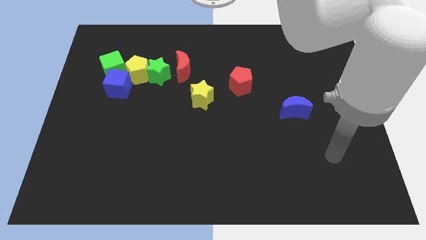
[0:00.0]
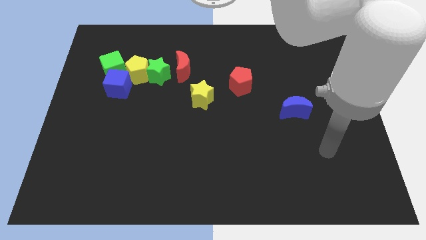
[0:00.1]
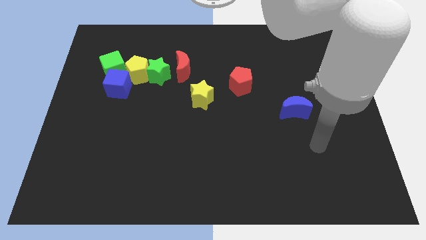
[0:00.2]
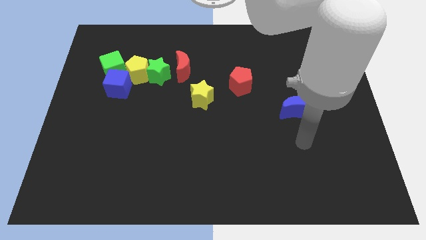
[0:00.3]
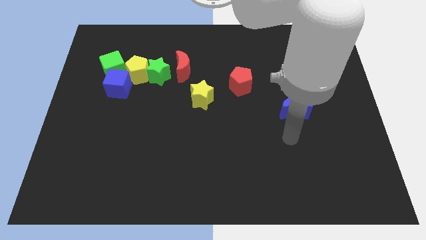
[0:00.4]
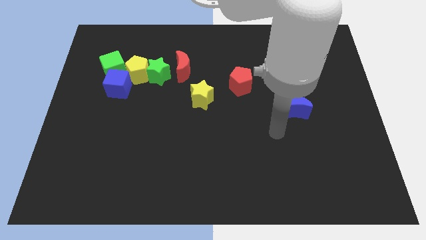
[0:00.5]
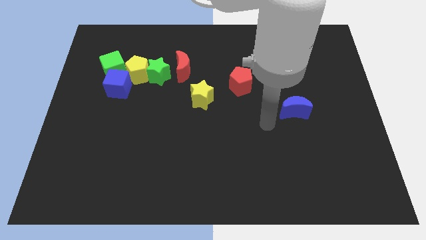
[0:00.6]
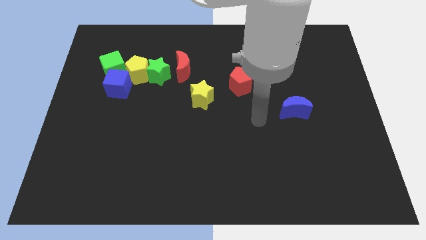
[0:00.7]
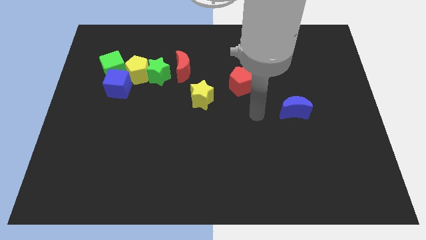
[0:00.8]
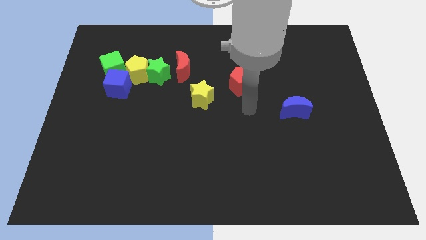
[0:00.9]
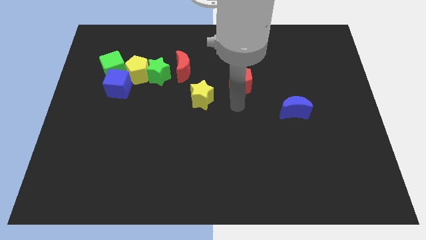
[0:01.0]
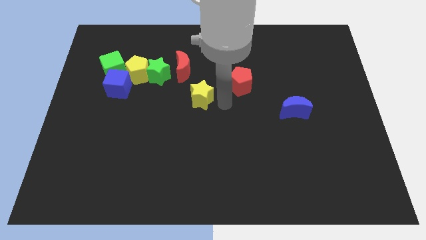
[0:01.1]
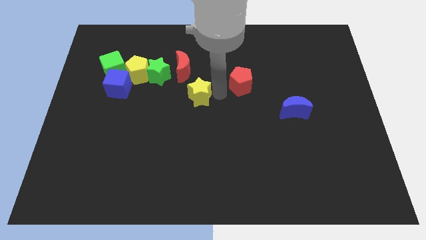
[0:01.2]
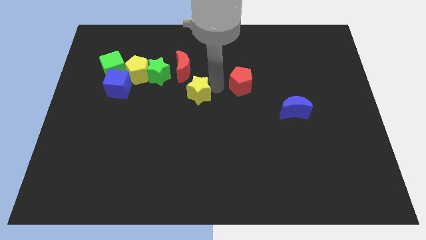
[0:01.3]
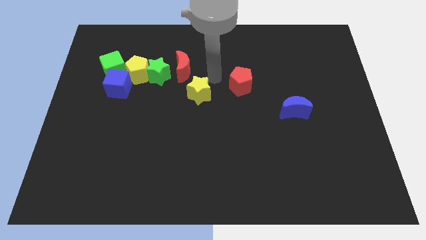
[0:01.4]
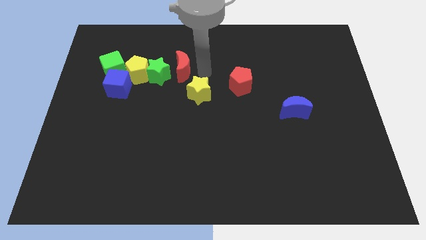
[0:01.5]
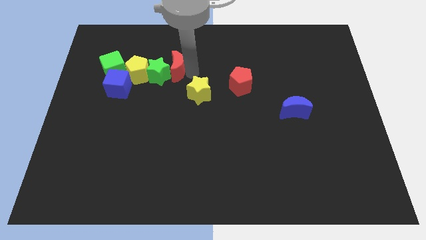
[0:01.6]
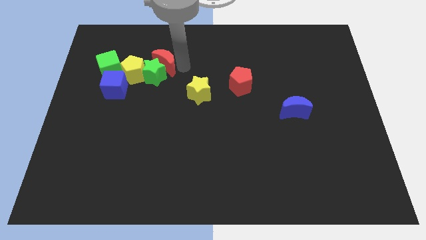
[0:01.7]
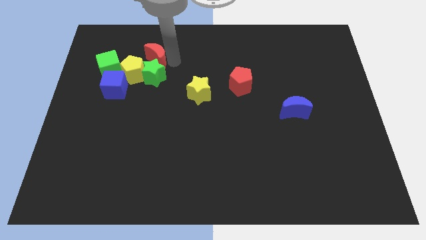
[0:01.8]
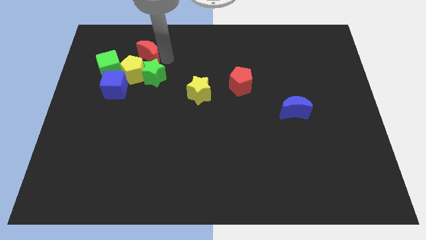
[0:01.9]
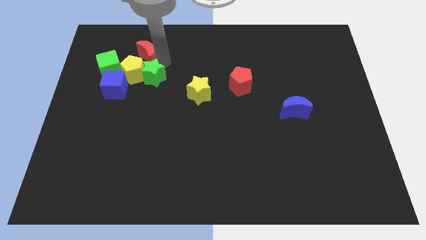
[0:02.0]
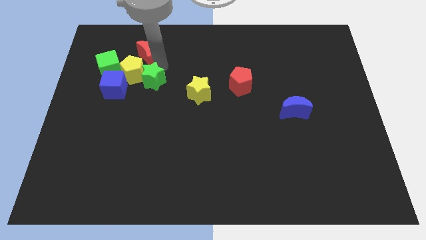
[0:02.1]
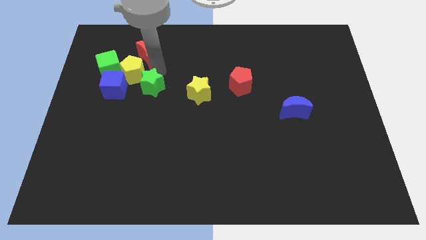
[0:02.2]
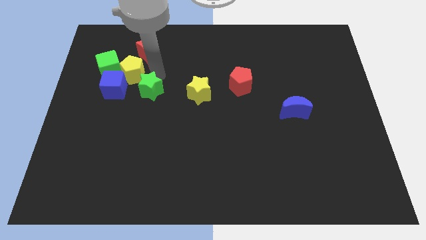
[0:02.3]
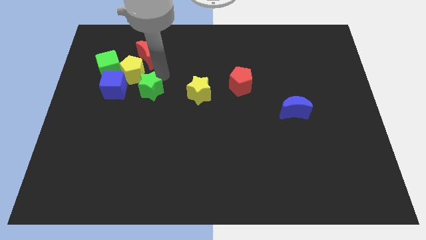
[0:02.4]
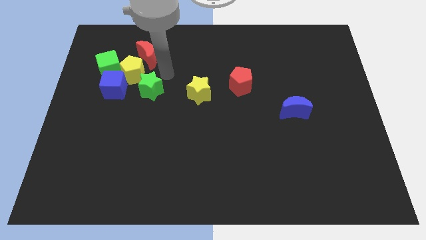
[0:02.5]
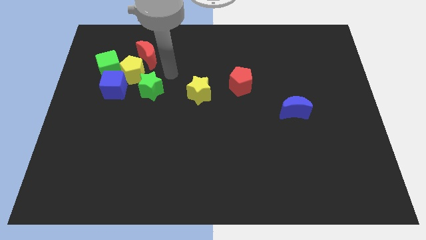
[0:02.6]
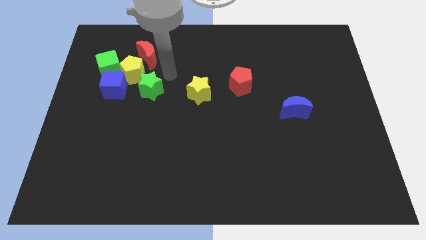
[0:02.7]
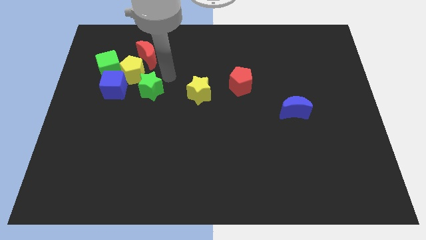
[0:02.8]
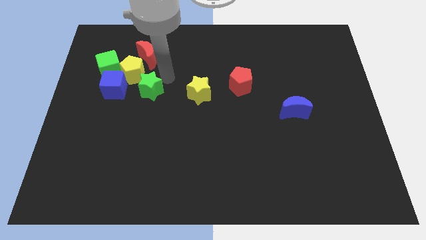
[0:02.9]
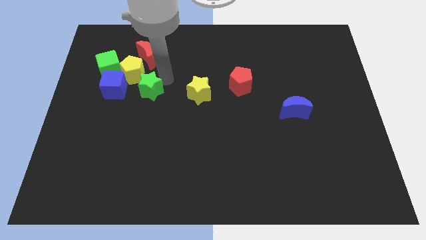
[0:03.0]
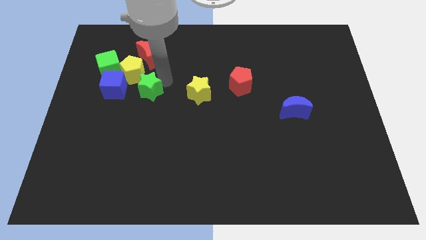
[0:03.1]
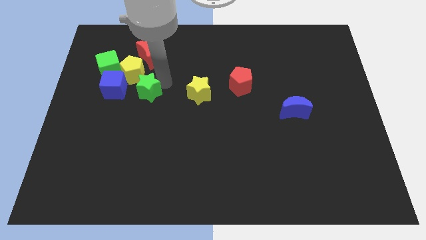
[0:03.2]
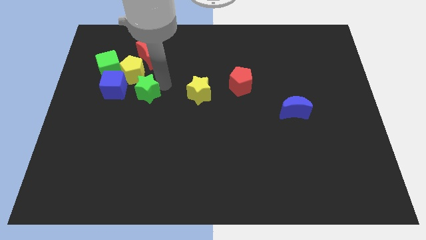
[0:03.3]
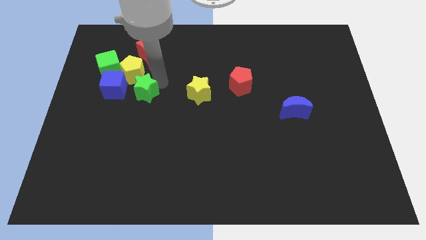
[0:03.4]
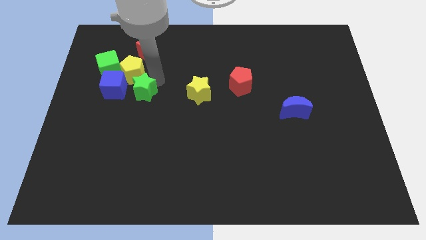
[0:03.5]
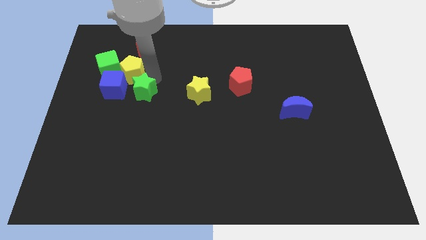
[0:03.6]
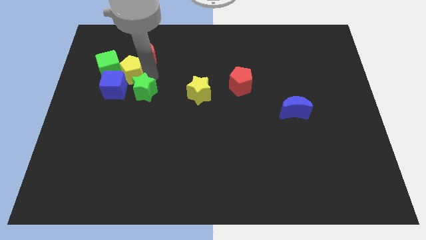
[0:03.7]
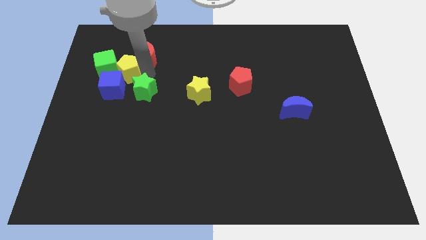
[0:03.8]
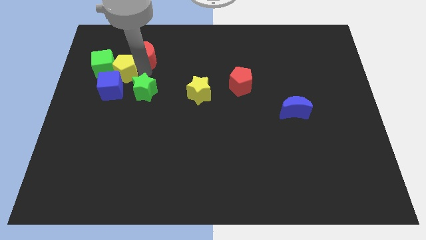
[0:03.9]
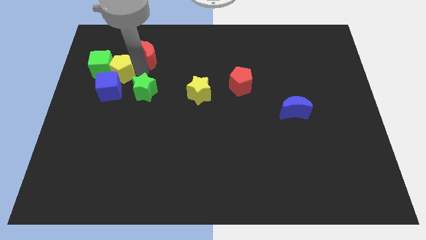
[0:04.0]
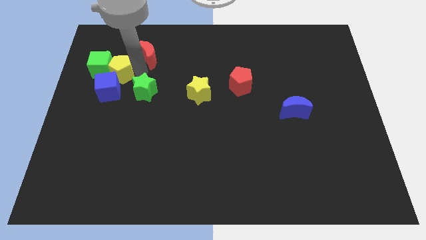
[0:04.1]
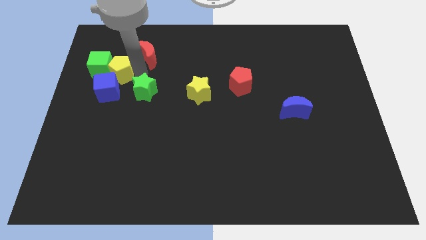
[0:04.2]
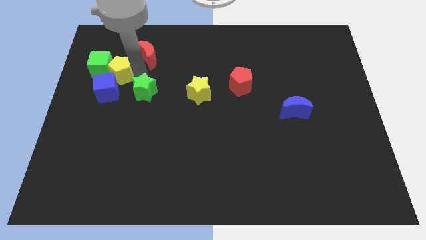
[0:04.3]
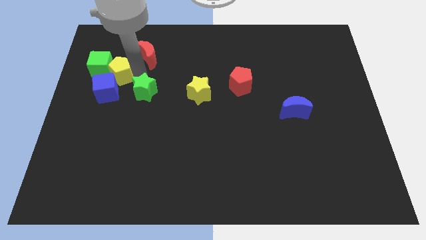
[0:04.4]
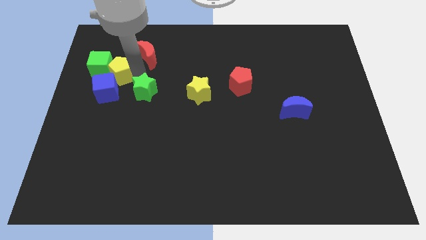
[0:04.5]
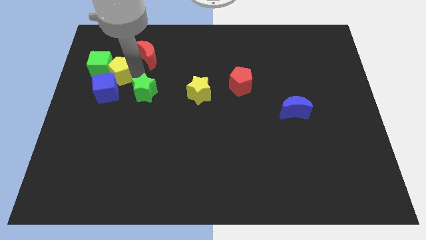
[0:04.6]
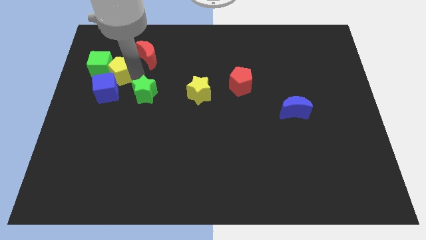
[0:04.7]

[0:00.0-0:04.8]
pull the green star apart from the yellow pentagon and red moon

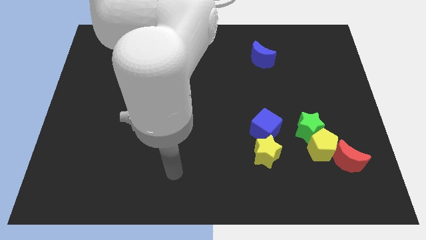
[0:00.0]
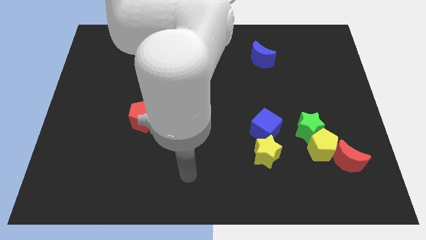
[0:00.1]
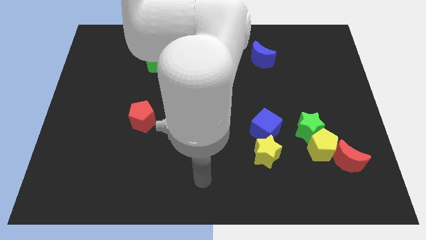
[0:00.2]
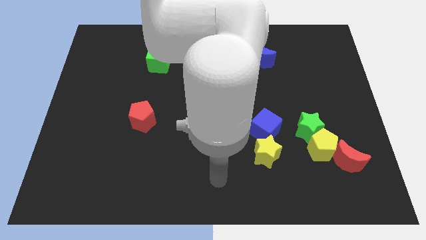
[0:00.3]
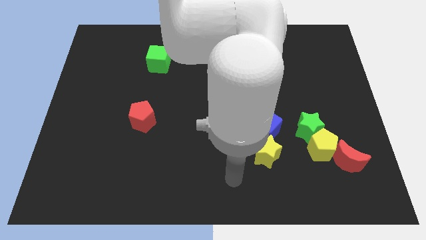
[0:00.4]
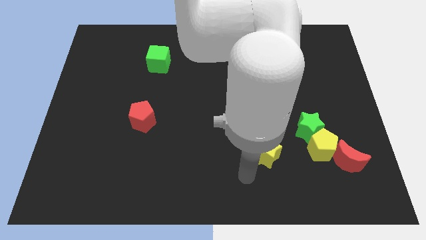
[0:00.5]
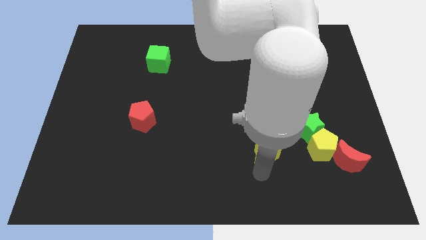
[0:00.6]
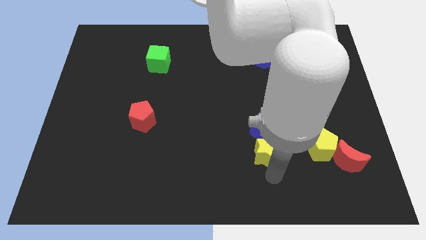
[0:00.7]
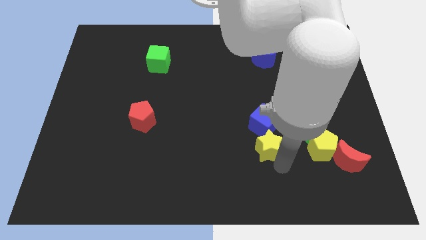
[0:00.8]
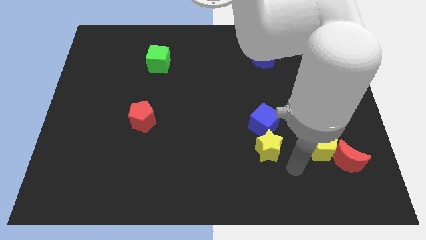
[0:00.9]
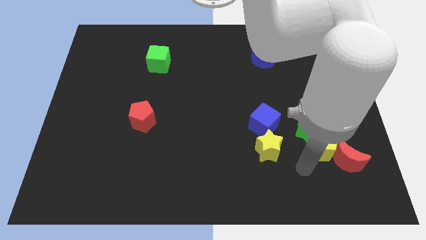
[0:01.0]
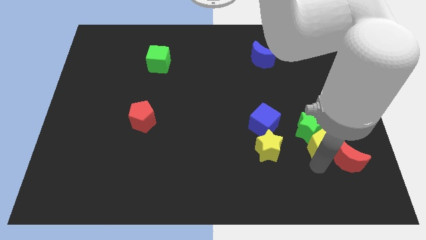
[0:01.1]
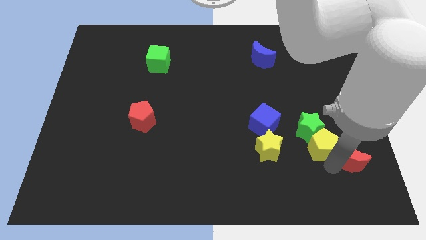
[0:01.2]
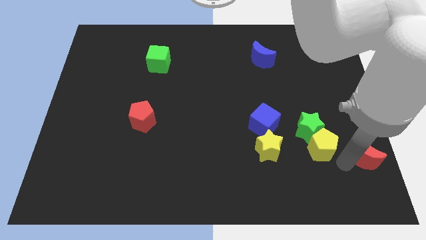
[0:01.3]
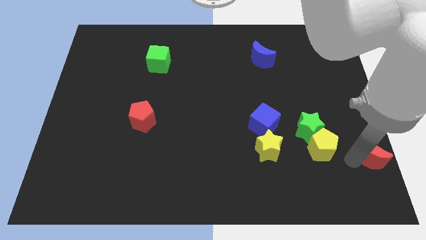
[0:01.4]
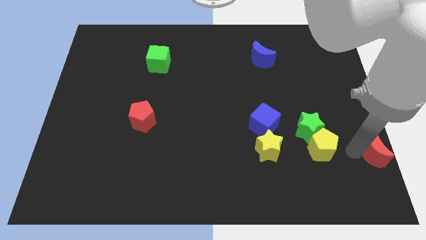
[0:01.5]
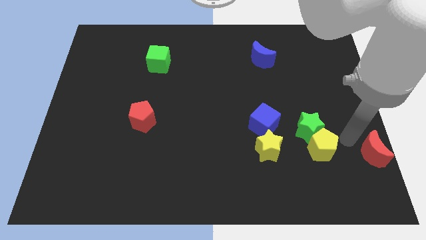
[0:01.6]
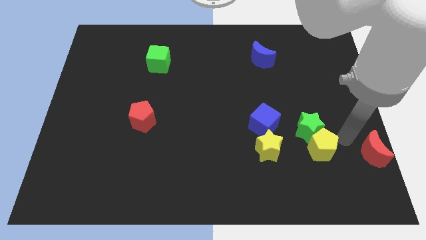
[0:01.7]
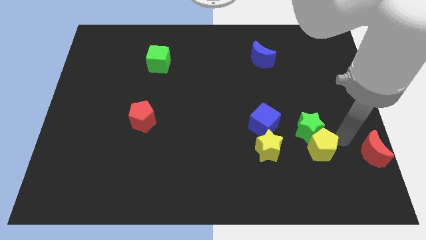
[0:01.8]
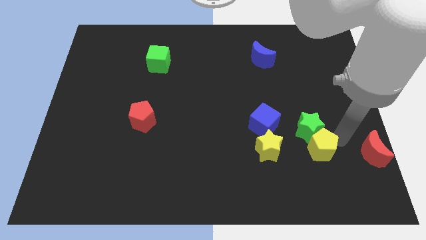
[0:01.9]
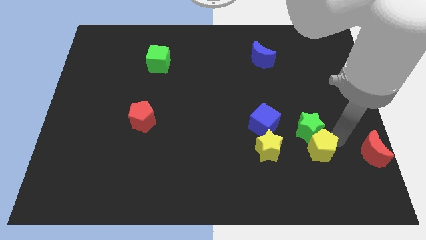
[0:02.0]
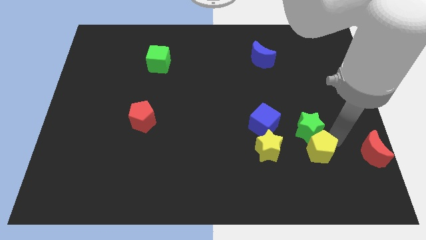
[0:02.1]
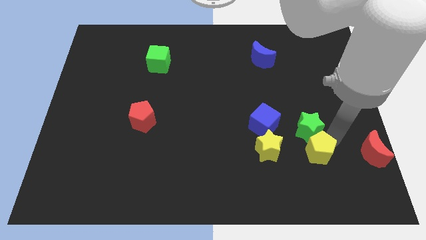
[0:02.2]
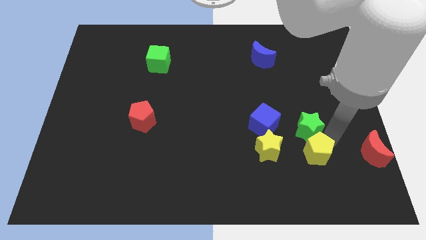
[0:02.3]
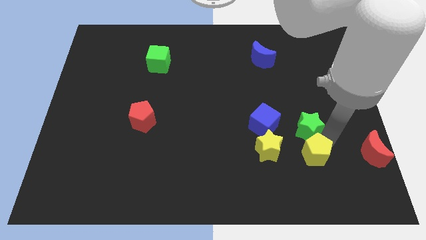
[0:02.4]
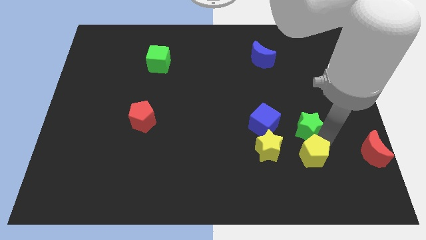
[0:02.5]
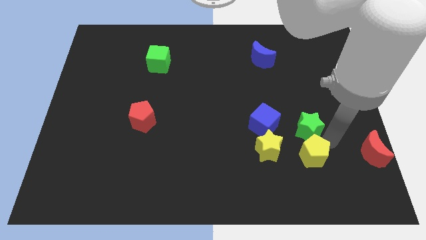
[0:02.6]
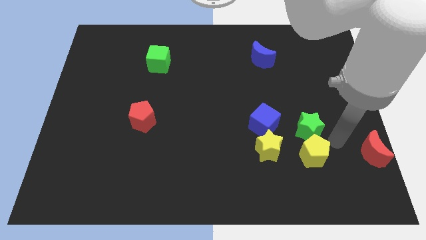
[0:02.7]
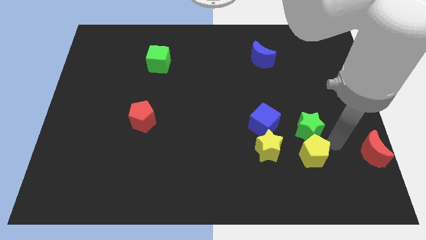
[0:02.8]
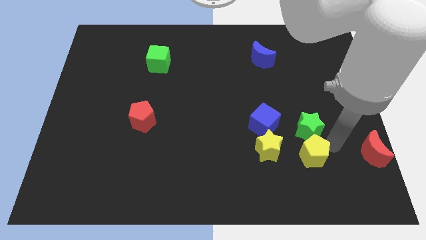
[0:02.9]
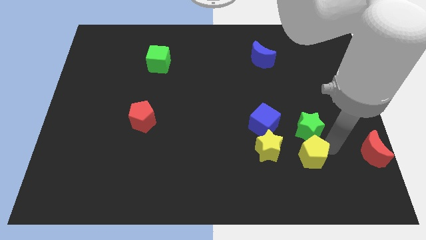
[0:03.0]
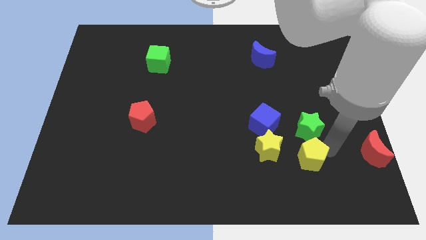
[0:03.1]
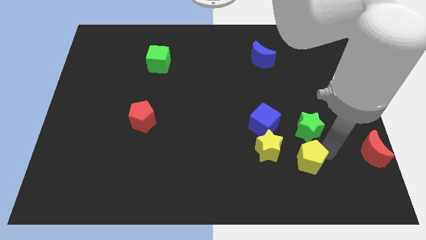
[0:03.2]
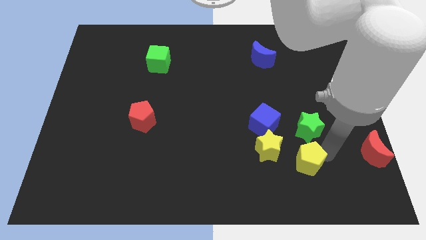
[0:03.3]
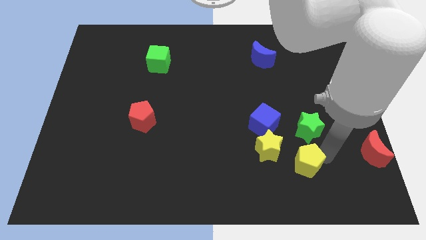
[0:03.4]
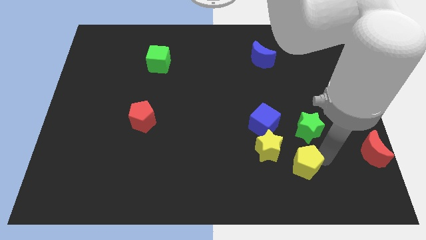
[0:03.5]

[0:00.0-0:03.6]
move the yellow pentagon away from the green star and red moon

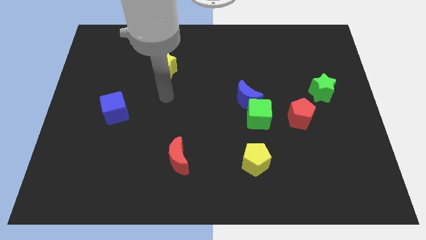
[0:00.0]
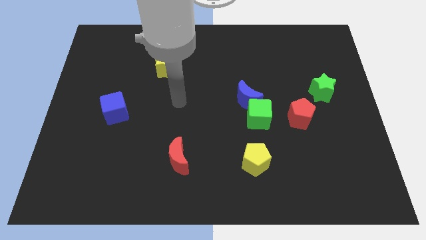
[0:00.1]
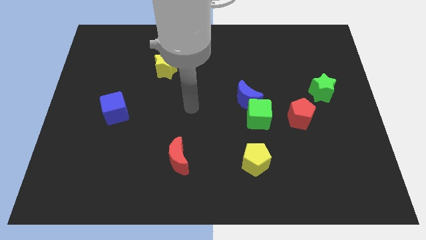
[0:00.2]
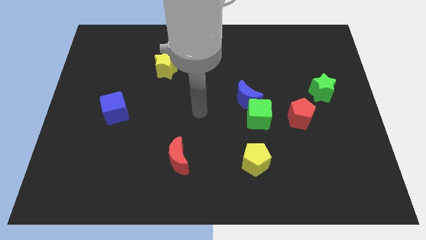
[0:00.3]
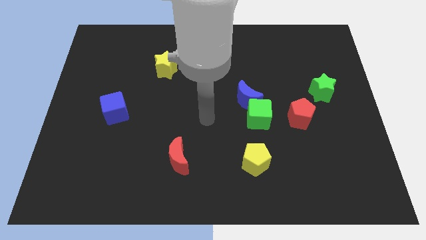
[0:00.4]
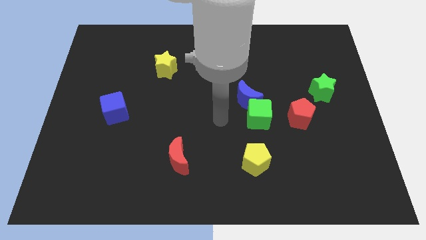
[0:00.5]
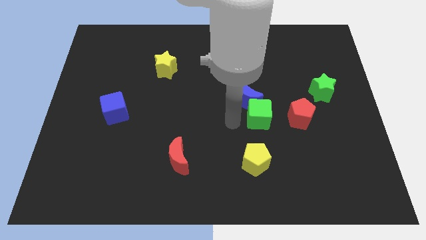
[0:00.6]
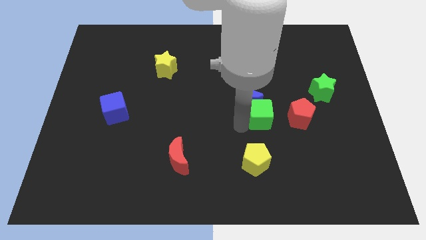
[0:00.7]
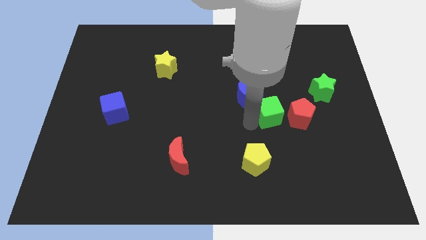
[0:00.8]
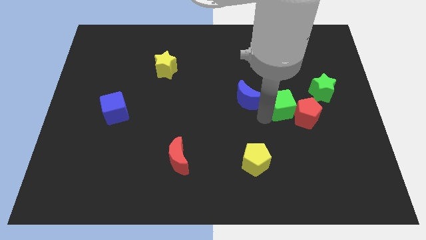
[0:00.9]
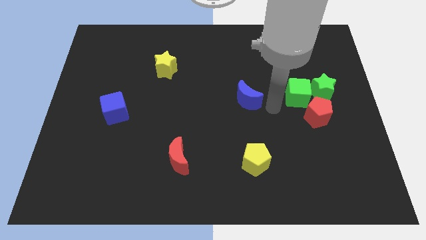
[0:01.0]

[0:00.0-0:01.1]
separate the blue moon from the green cube
